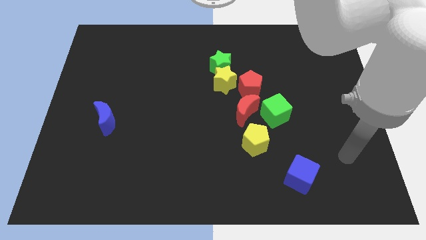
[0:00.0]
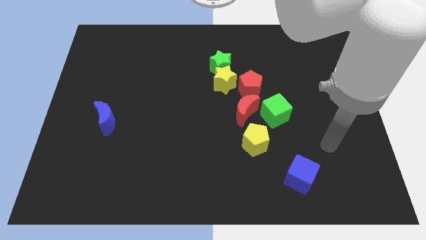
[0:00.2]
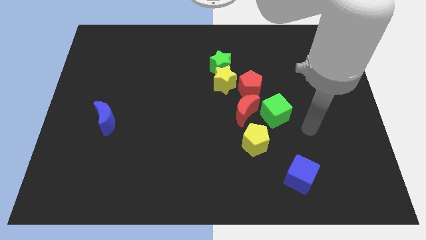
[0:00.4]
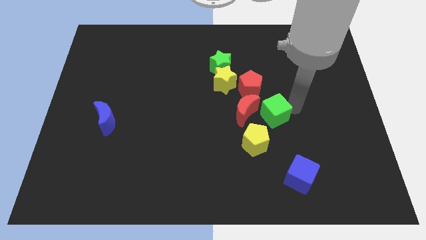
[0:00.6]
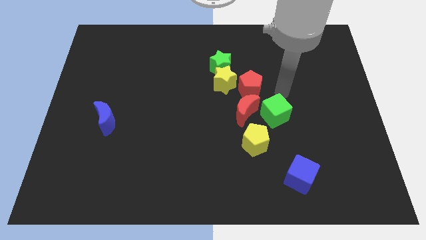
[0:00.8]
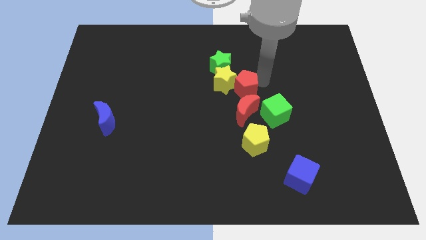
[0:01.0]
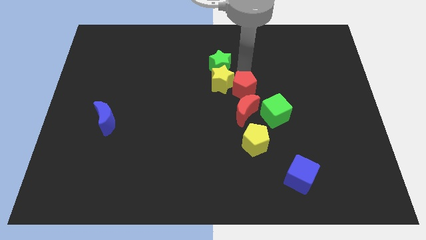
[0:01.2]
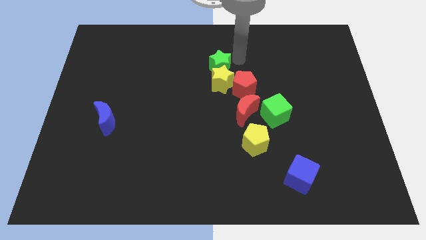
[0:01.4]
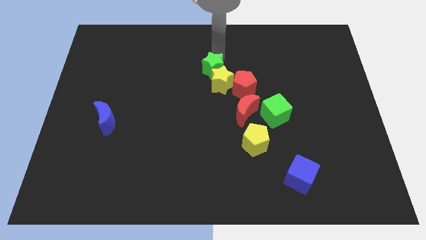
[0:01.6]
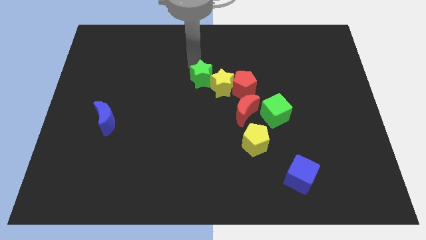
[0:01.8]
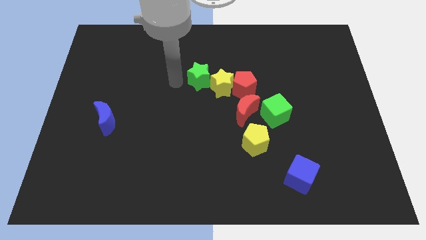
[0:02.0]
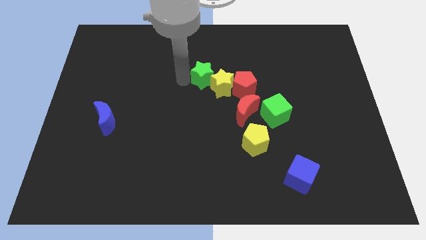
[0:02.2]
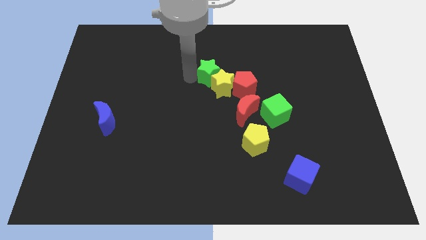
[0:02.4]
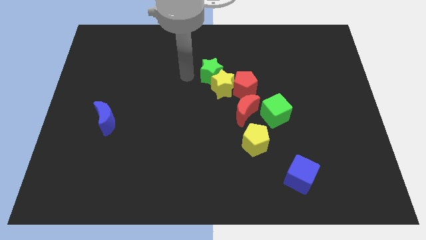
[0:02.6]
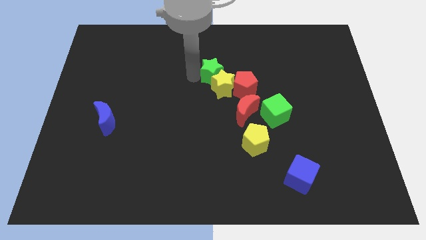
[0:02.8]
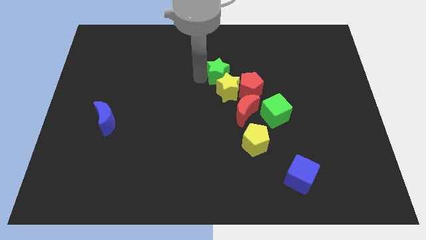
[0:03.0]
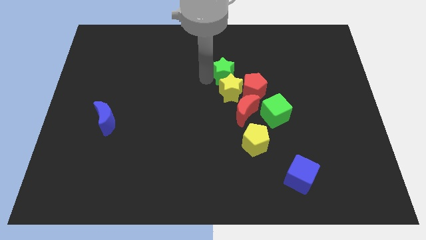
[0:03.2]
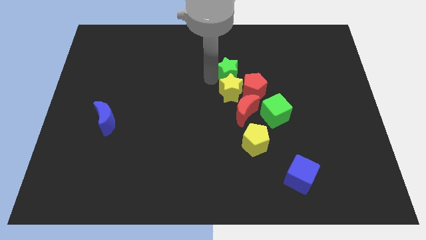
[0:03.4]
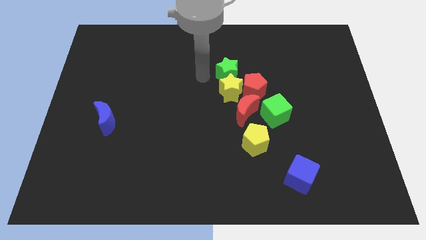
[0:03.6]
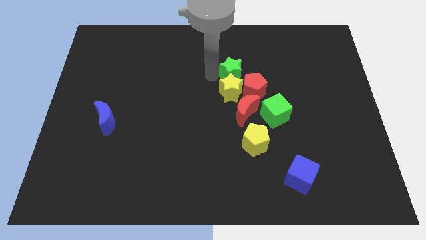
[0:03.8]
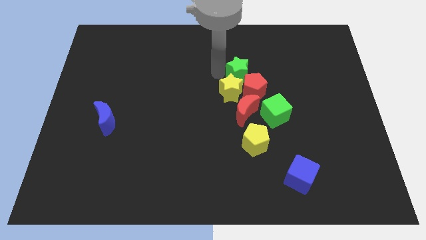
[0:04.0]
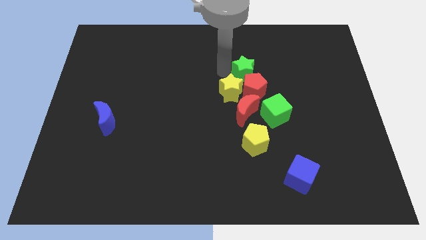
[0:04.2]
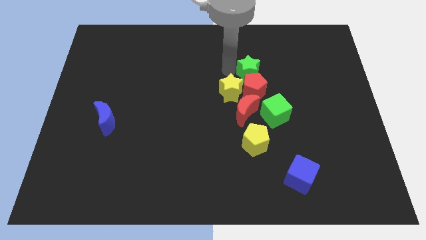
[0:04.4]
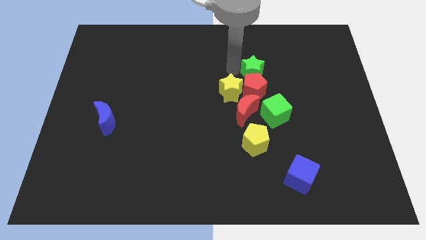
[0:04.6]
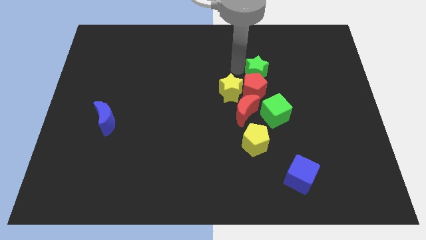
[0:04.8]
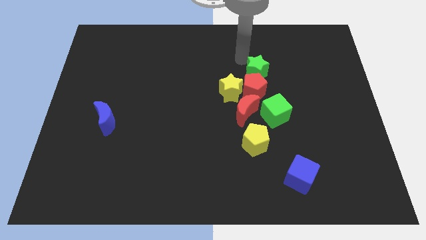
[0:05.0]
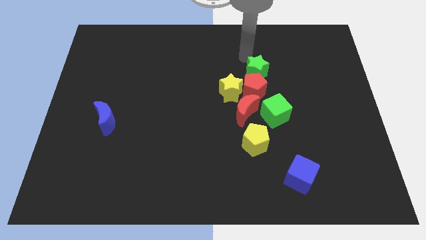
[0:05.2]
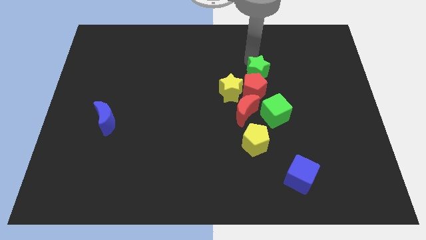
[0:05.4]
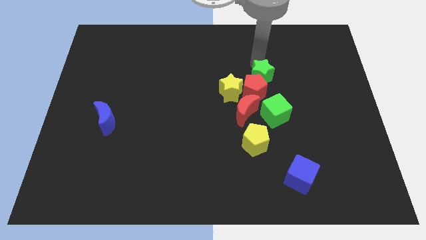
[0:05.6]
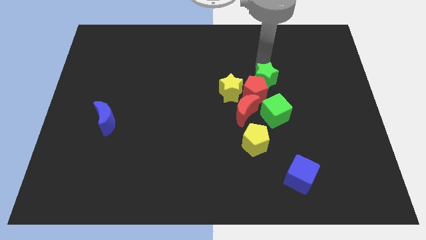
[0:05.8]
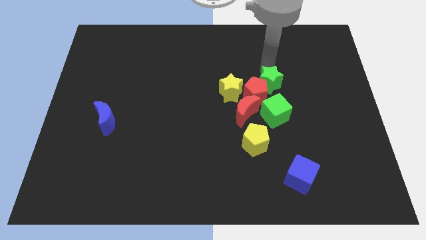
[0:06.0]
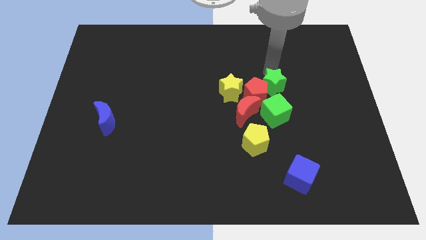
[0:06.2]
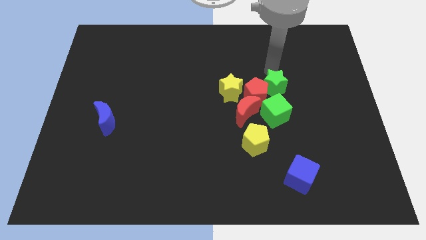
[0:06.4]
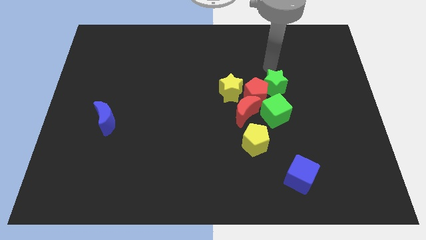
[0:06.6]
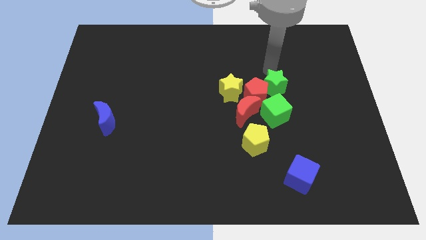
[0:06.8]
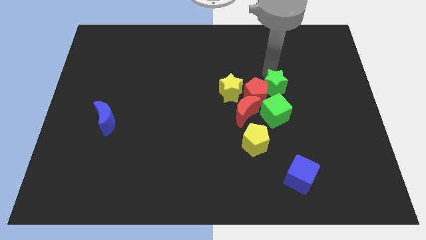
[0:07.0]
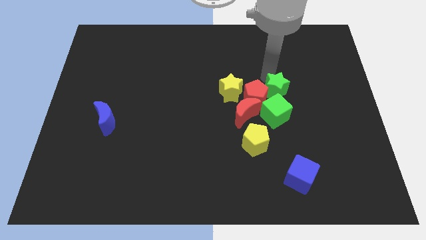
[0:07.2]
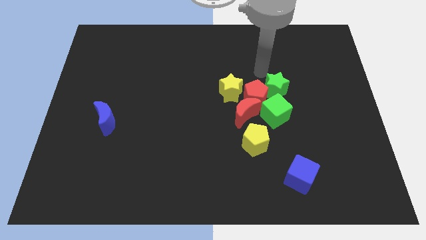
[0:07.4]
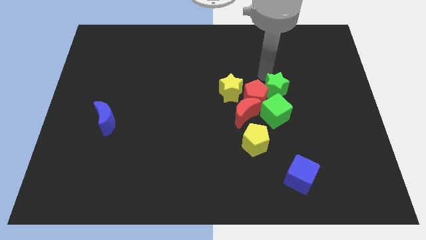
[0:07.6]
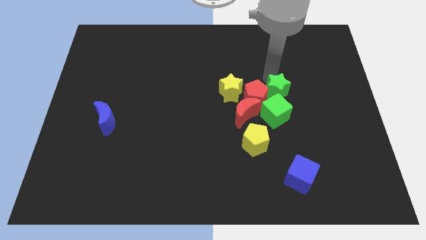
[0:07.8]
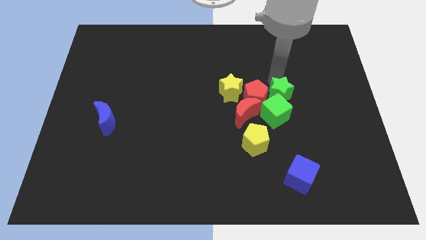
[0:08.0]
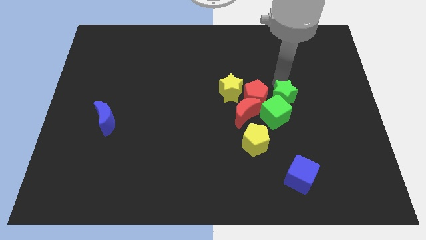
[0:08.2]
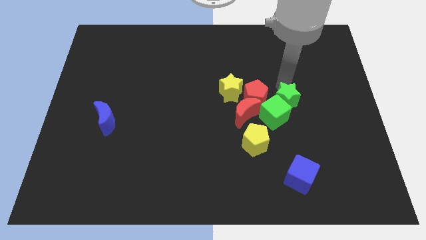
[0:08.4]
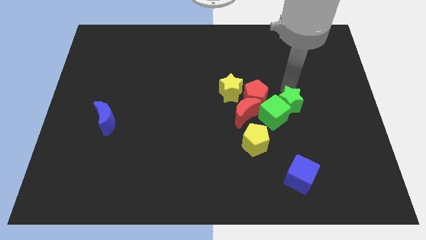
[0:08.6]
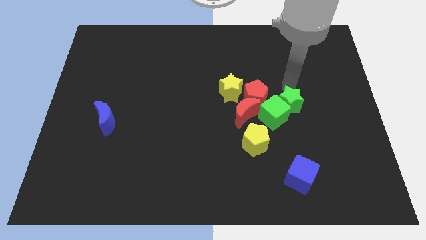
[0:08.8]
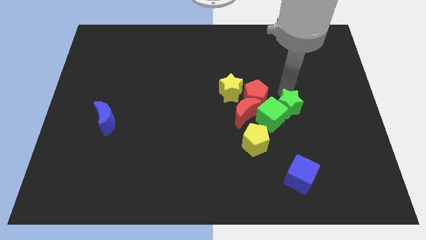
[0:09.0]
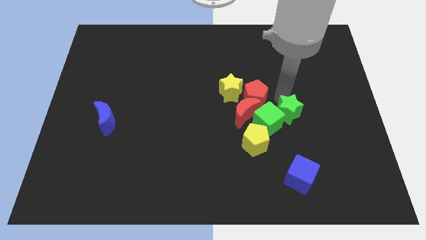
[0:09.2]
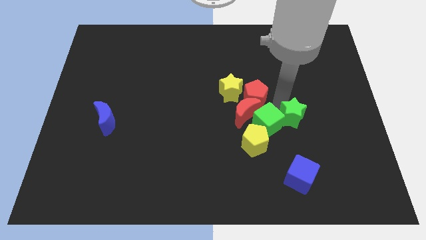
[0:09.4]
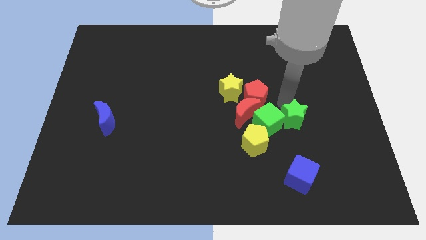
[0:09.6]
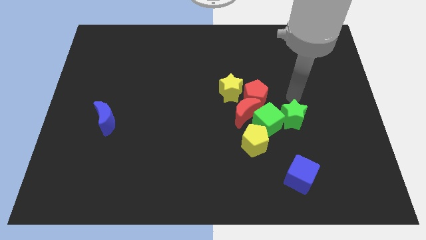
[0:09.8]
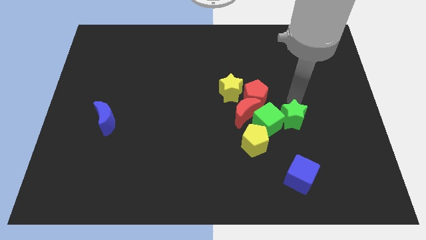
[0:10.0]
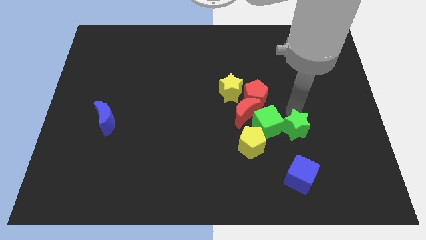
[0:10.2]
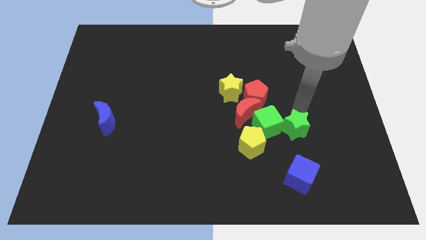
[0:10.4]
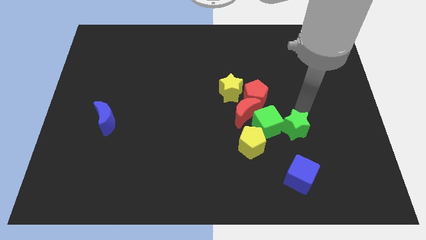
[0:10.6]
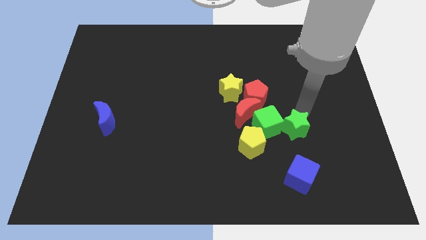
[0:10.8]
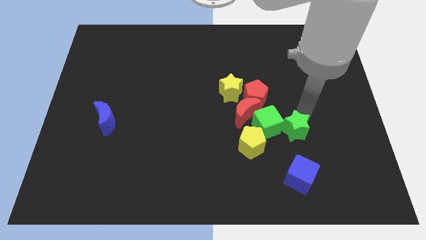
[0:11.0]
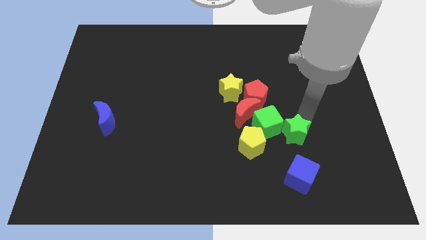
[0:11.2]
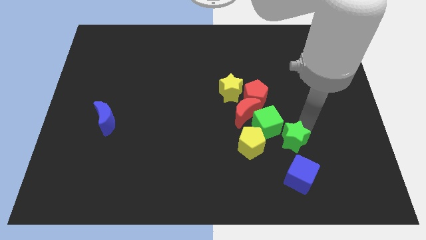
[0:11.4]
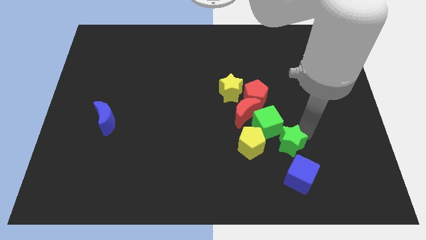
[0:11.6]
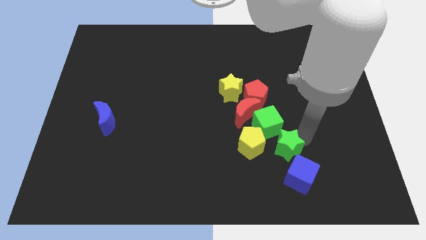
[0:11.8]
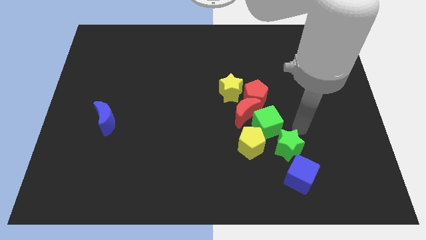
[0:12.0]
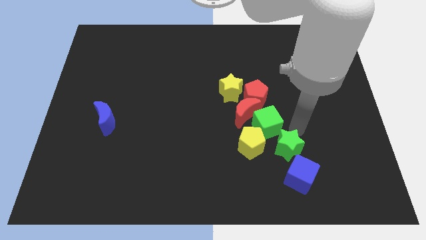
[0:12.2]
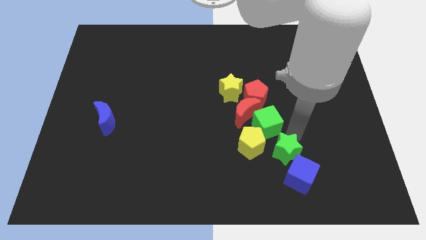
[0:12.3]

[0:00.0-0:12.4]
move the green star diagonally down and to the right of the yellow pentagon

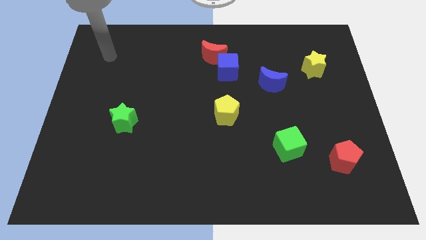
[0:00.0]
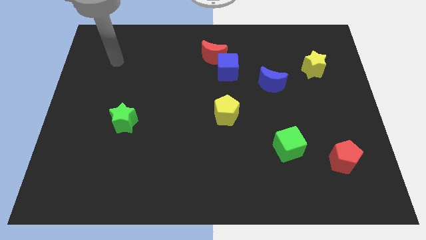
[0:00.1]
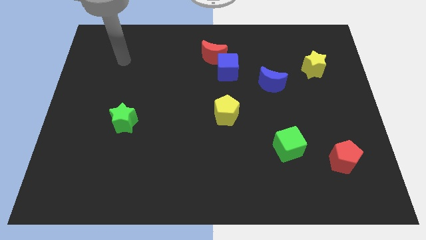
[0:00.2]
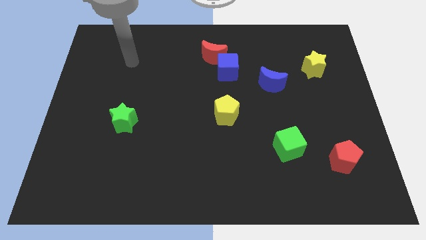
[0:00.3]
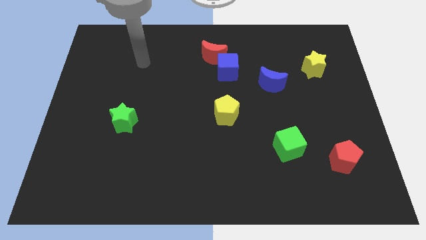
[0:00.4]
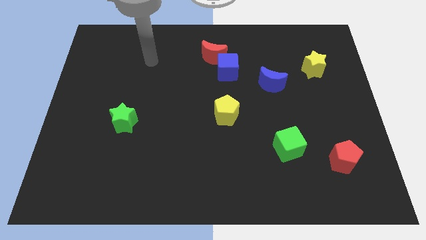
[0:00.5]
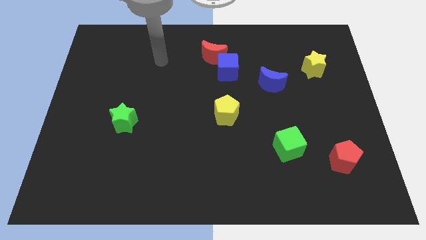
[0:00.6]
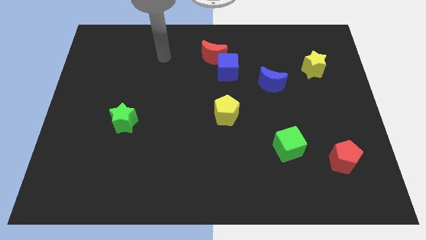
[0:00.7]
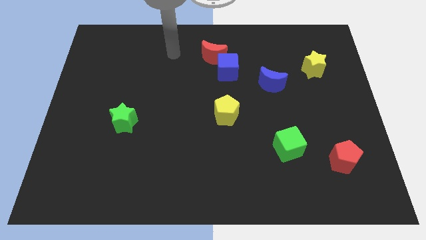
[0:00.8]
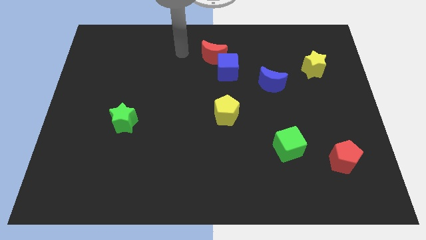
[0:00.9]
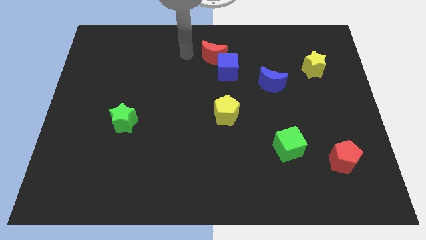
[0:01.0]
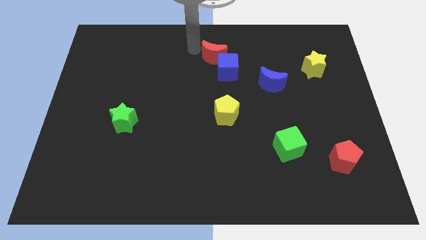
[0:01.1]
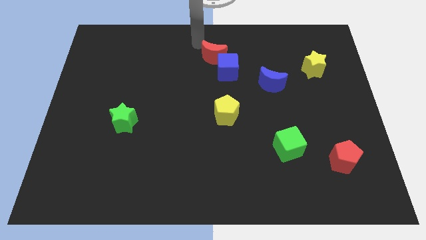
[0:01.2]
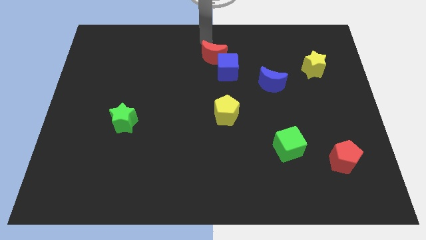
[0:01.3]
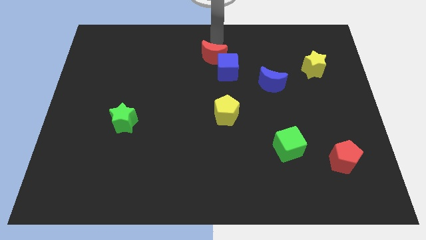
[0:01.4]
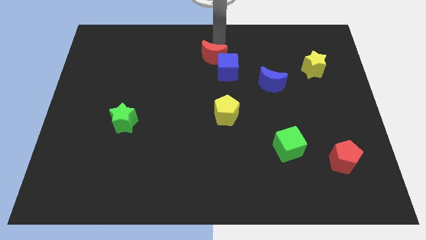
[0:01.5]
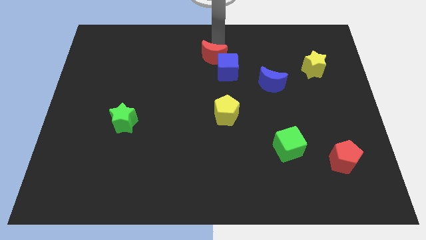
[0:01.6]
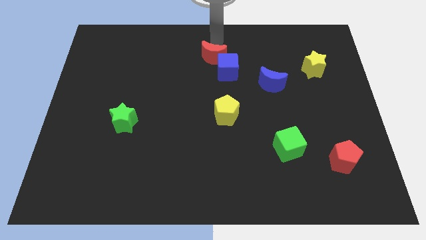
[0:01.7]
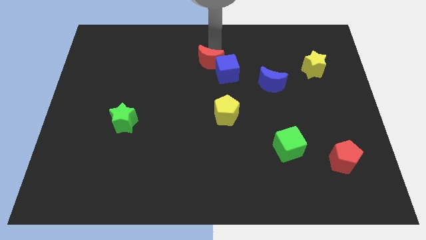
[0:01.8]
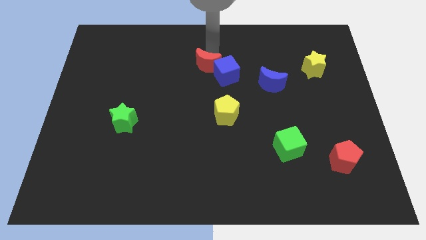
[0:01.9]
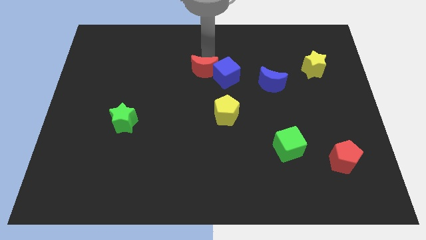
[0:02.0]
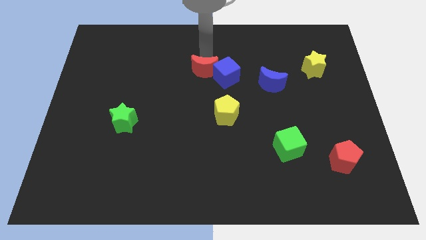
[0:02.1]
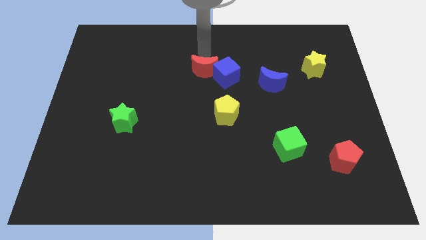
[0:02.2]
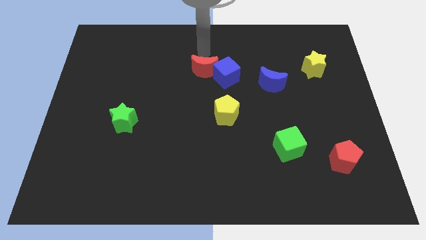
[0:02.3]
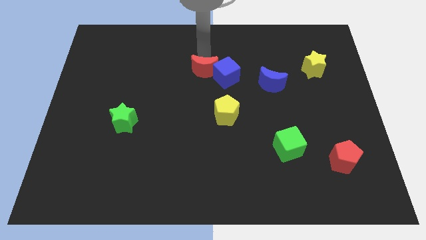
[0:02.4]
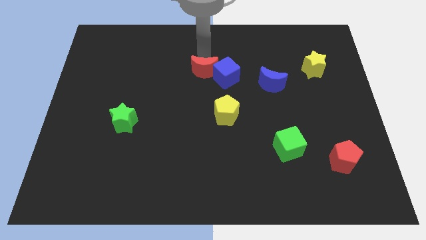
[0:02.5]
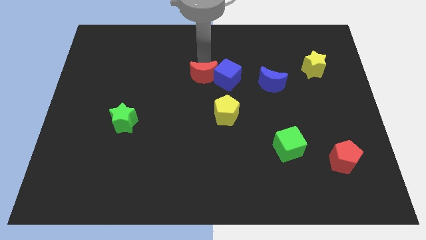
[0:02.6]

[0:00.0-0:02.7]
slide the red moon to the bottom left side of the blue cube
